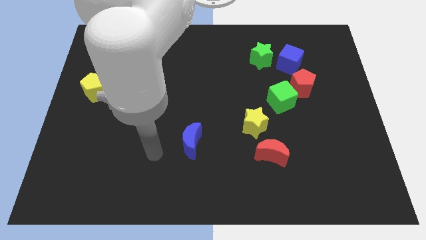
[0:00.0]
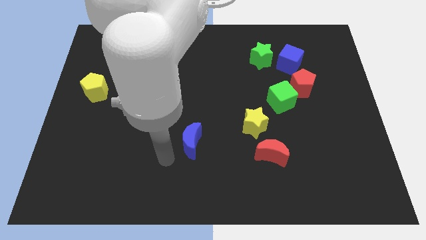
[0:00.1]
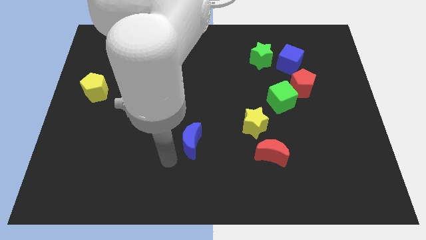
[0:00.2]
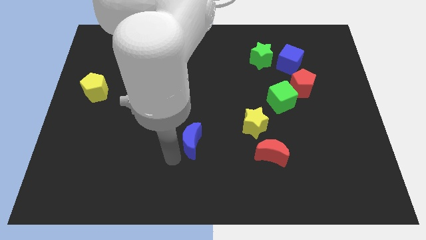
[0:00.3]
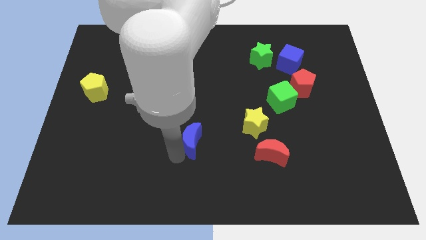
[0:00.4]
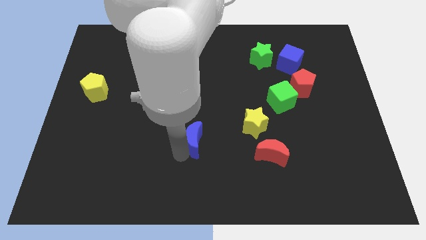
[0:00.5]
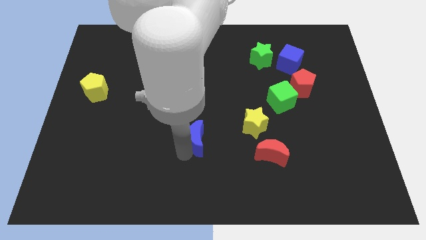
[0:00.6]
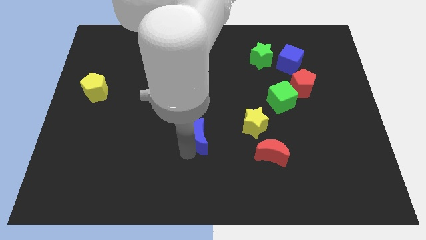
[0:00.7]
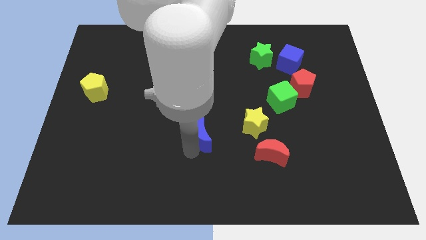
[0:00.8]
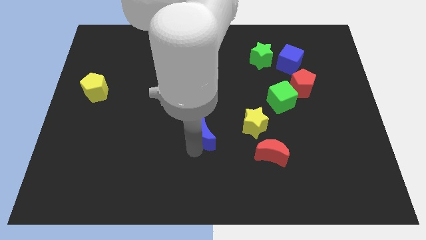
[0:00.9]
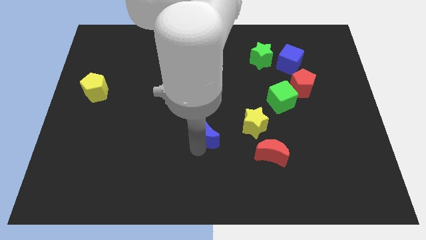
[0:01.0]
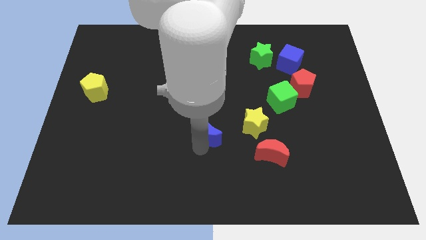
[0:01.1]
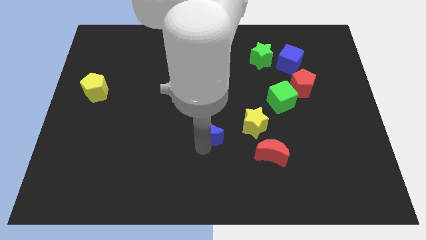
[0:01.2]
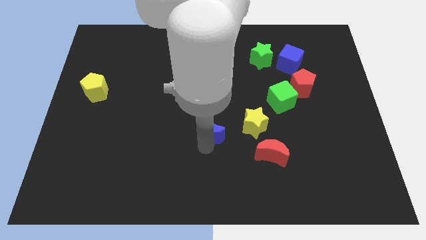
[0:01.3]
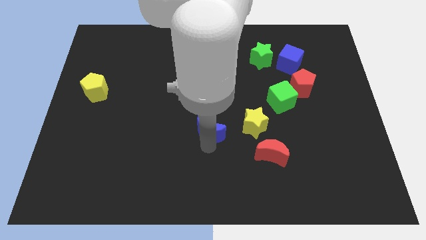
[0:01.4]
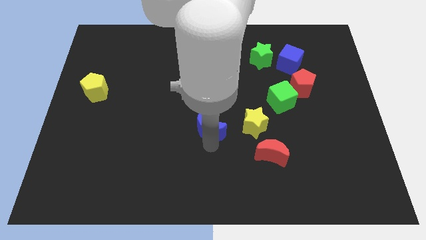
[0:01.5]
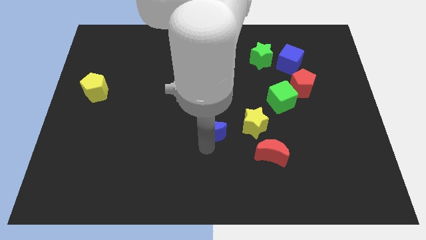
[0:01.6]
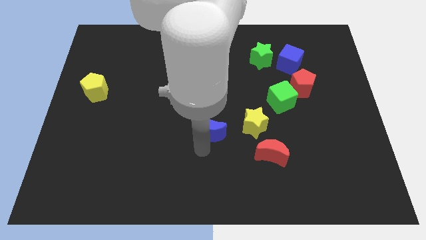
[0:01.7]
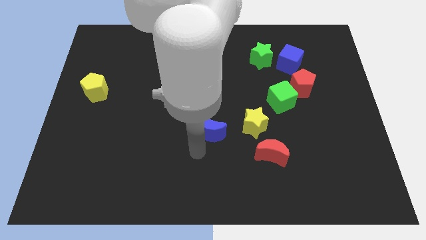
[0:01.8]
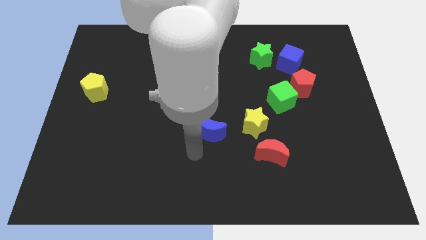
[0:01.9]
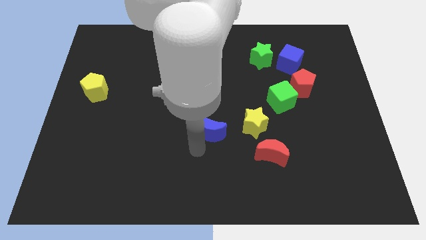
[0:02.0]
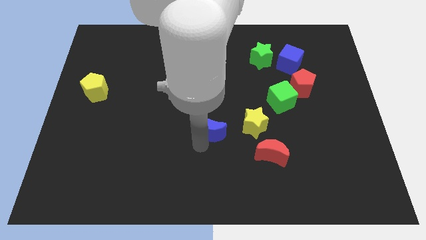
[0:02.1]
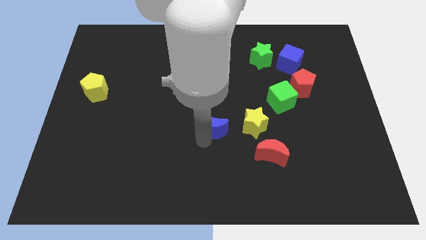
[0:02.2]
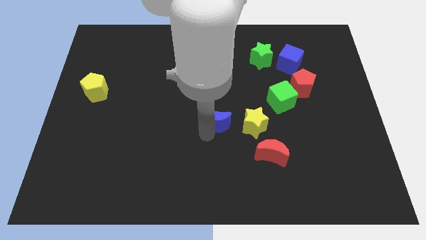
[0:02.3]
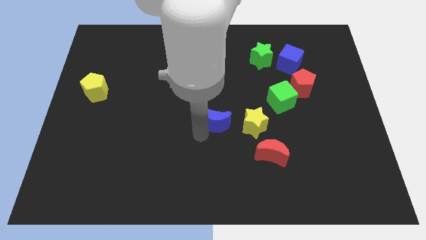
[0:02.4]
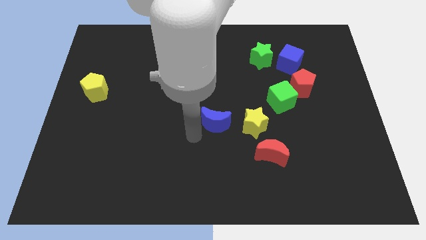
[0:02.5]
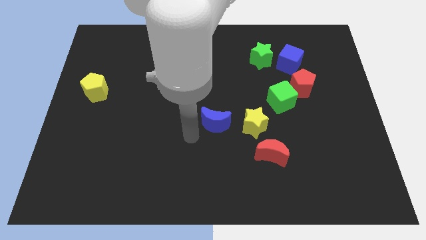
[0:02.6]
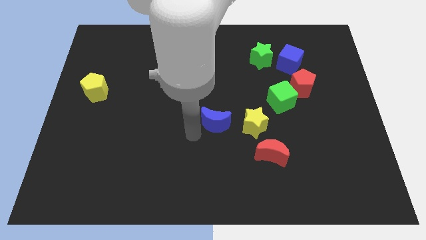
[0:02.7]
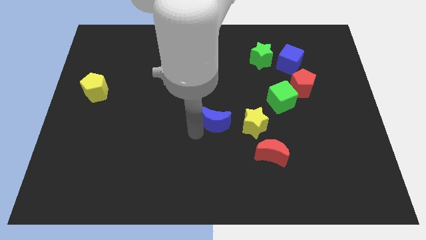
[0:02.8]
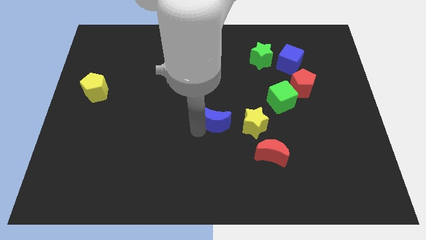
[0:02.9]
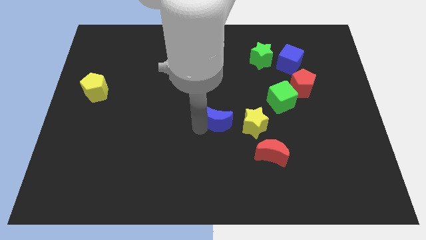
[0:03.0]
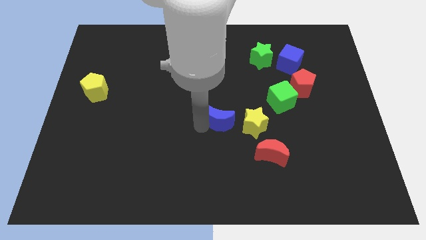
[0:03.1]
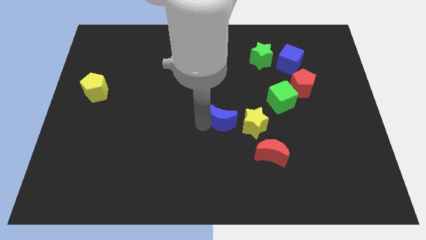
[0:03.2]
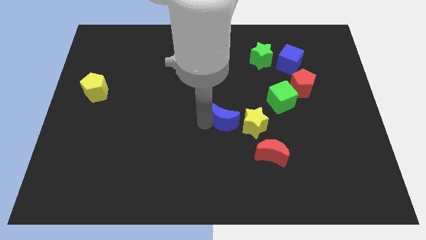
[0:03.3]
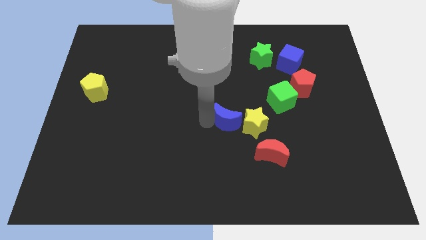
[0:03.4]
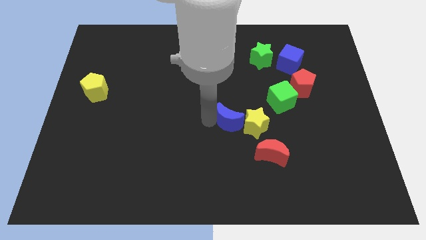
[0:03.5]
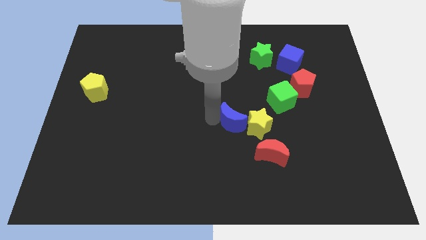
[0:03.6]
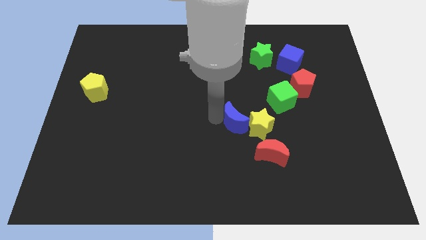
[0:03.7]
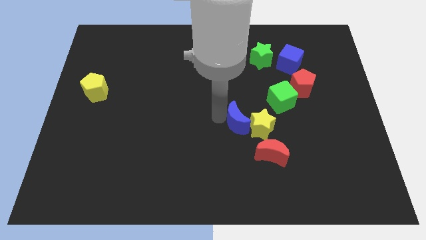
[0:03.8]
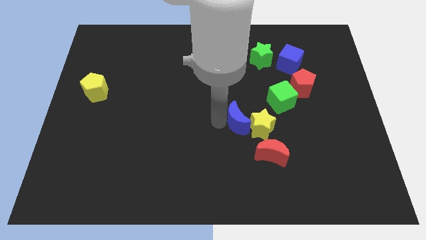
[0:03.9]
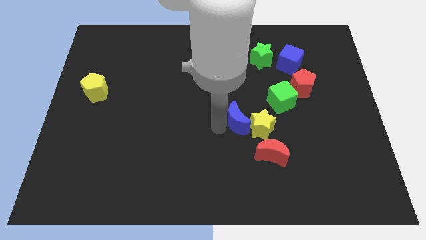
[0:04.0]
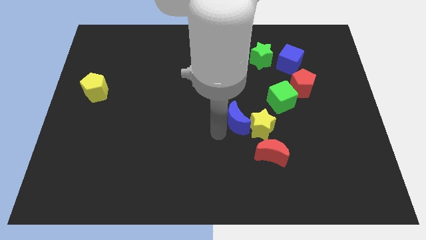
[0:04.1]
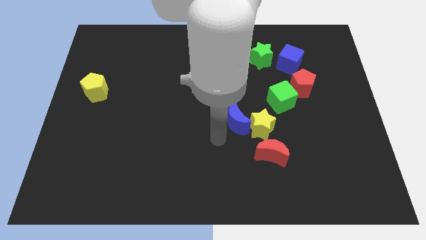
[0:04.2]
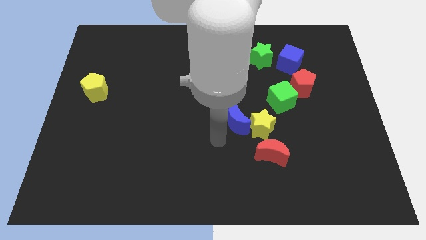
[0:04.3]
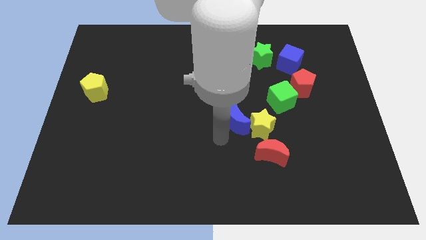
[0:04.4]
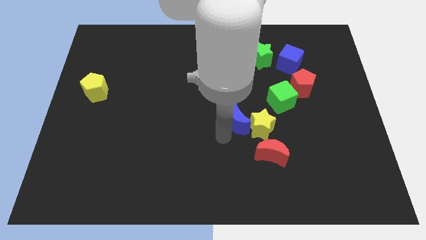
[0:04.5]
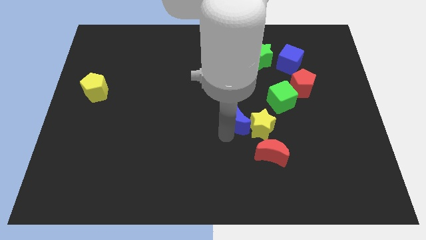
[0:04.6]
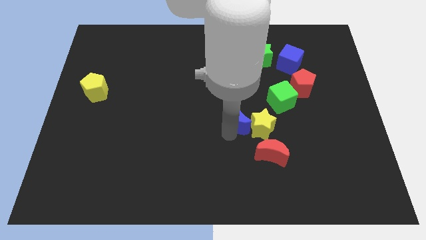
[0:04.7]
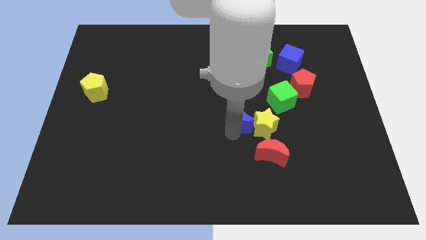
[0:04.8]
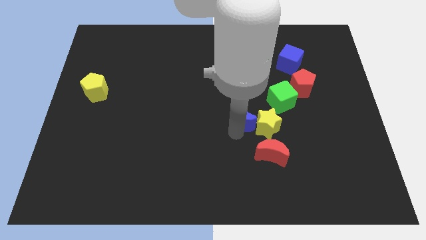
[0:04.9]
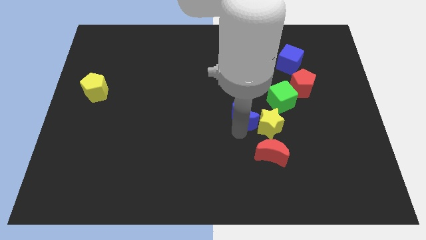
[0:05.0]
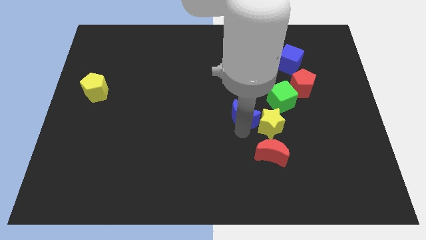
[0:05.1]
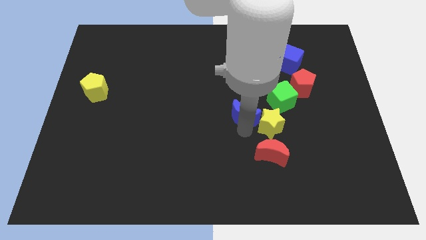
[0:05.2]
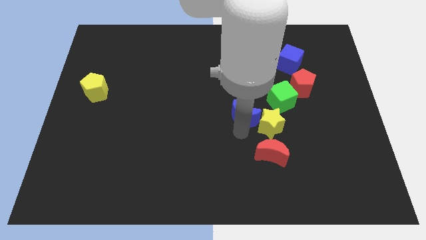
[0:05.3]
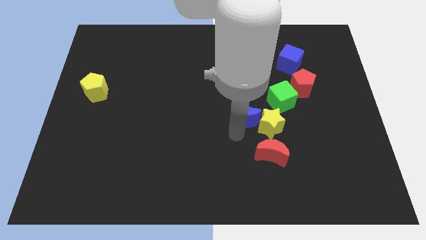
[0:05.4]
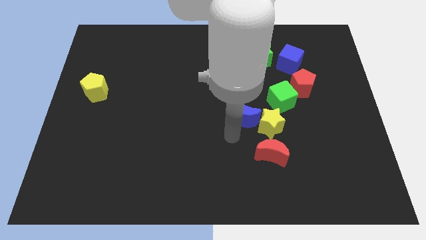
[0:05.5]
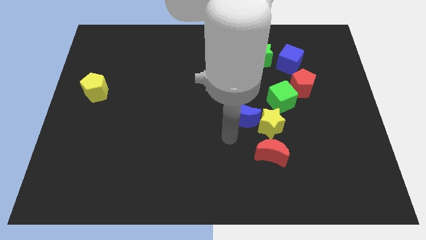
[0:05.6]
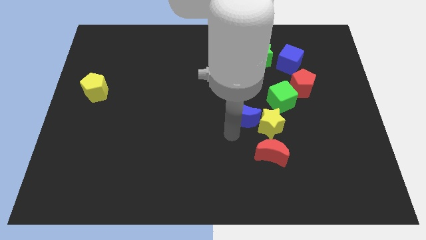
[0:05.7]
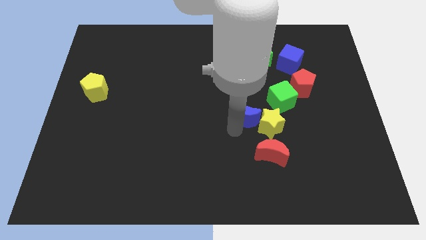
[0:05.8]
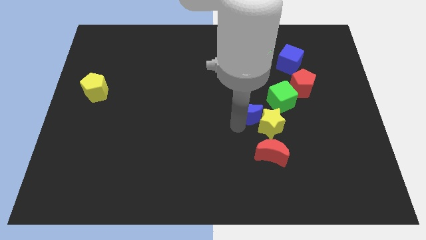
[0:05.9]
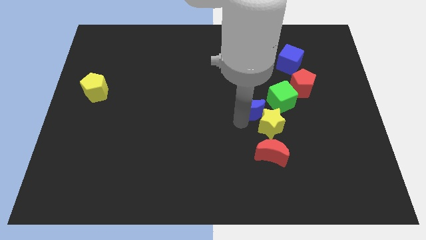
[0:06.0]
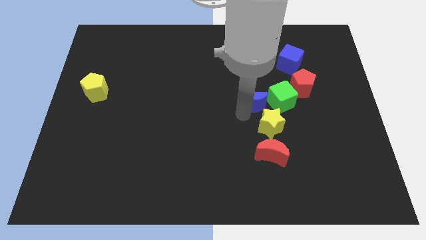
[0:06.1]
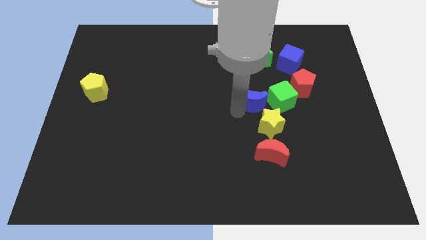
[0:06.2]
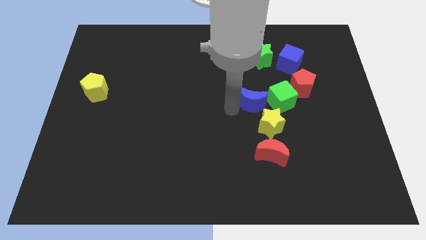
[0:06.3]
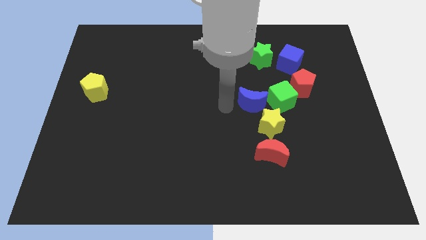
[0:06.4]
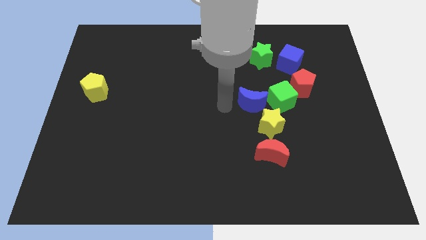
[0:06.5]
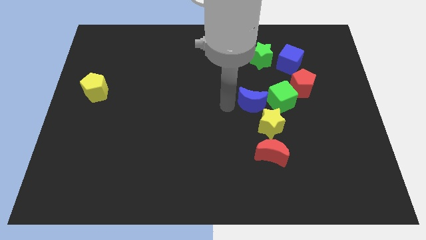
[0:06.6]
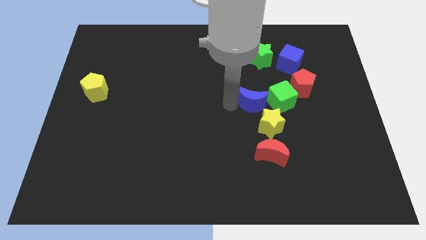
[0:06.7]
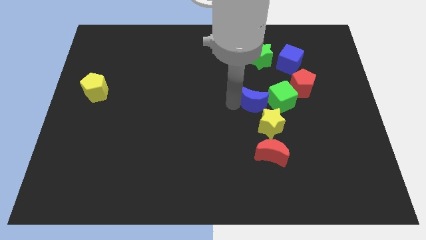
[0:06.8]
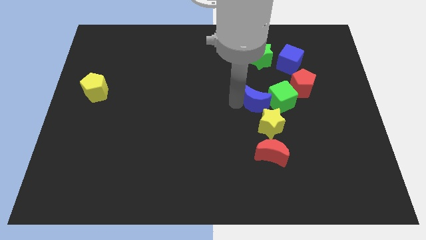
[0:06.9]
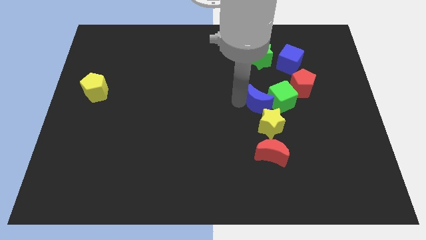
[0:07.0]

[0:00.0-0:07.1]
slide the blue moon towards the green cube

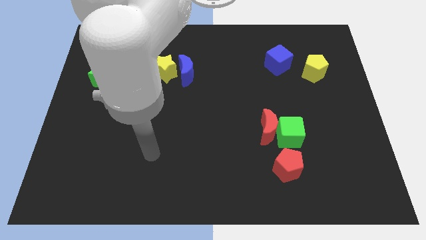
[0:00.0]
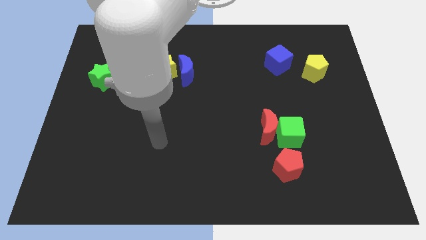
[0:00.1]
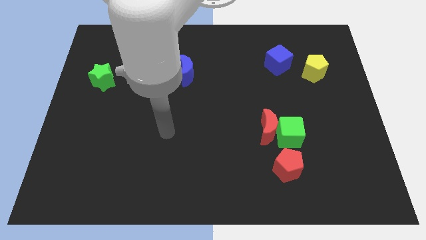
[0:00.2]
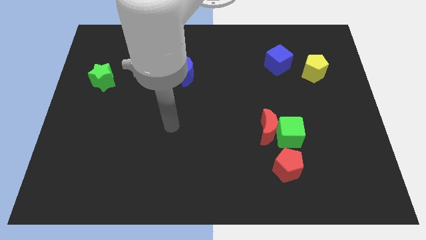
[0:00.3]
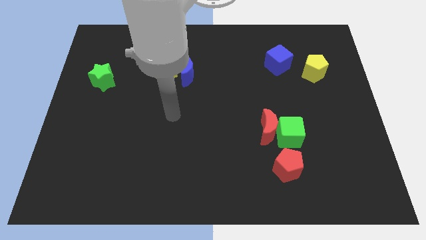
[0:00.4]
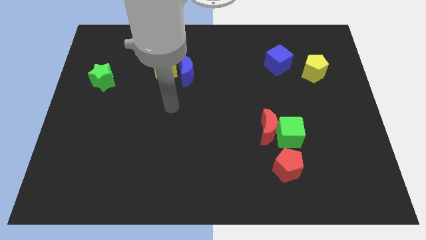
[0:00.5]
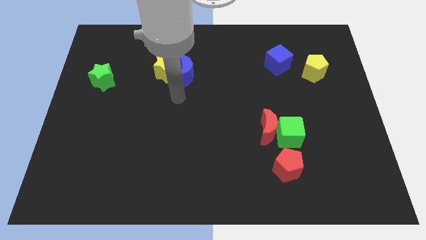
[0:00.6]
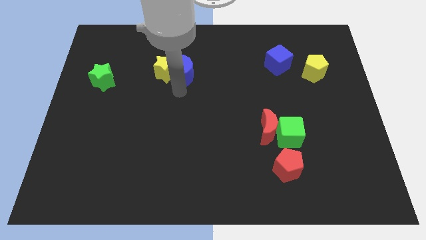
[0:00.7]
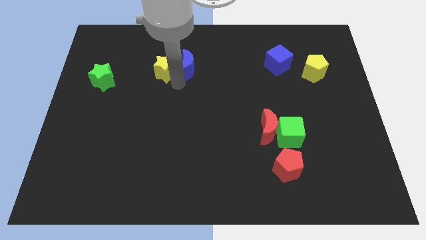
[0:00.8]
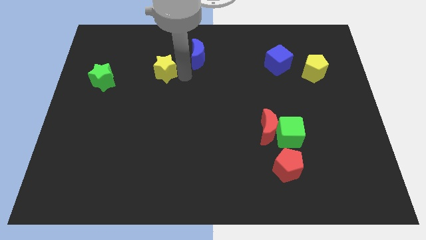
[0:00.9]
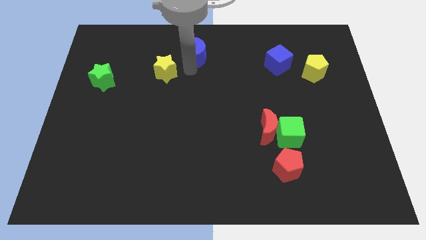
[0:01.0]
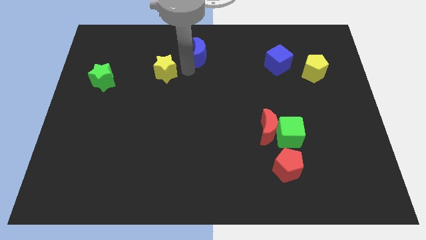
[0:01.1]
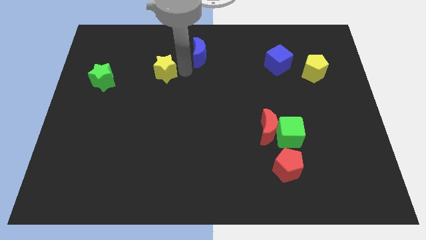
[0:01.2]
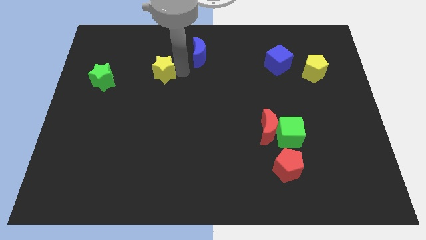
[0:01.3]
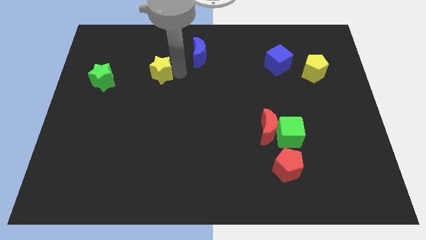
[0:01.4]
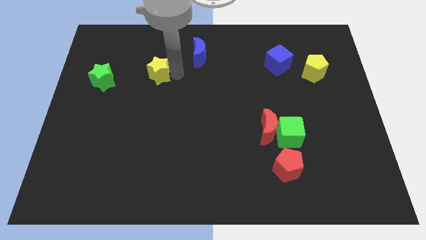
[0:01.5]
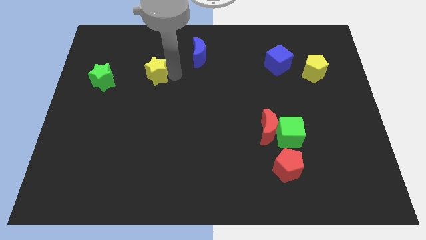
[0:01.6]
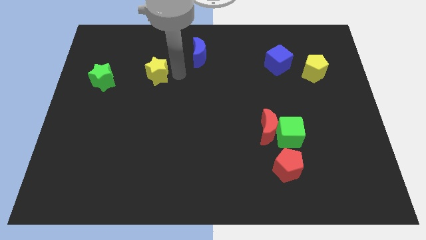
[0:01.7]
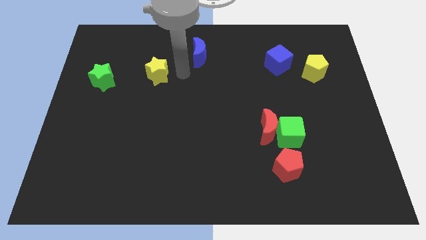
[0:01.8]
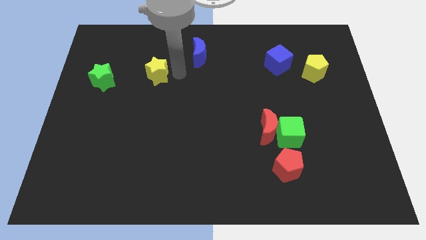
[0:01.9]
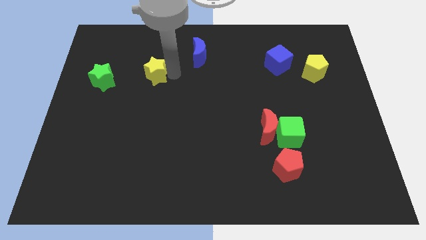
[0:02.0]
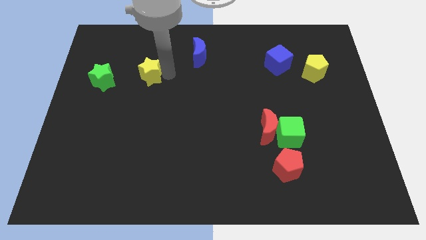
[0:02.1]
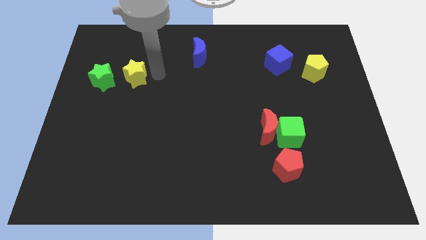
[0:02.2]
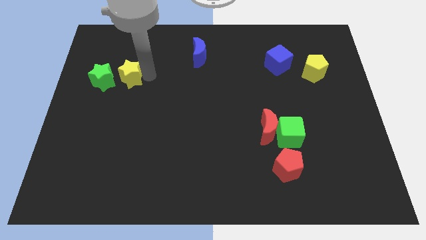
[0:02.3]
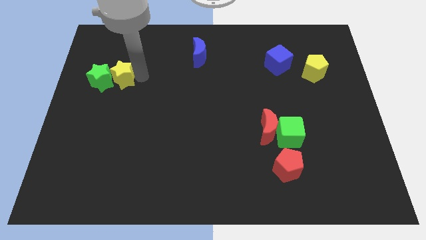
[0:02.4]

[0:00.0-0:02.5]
slide the yellow star next to the green star
